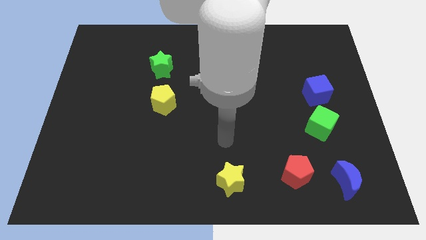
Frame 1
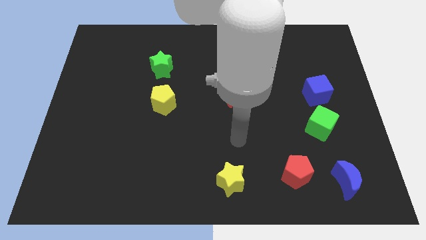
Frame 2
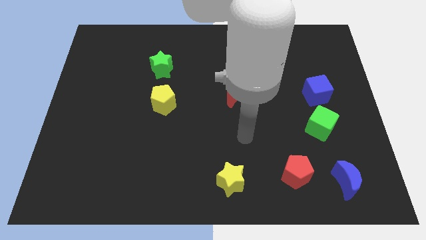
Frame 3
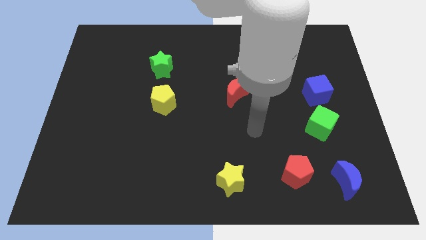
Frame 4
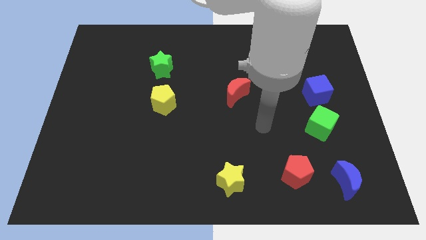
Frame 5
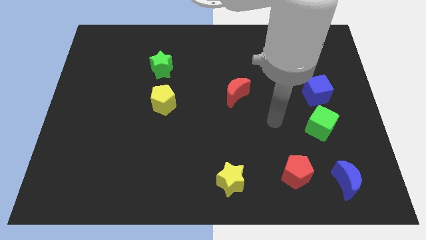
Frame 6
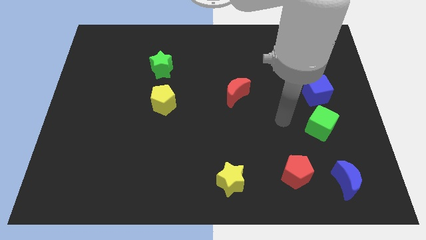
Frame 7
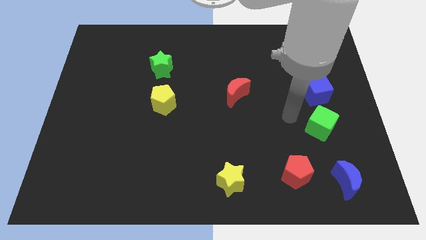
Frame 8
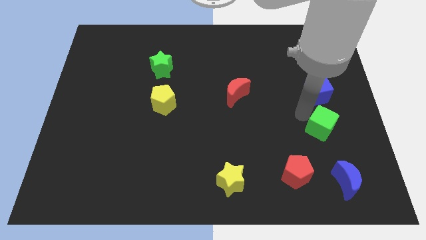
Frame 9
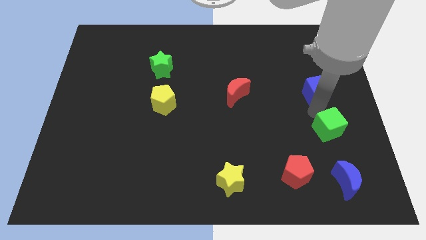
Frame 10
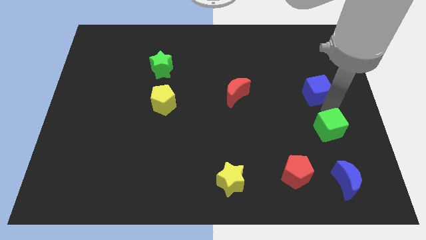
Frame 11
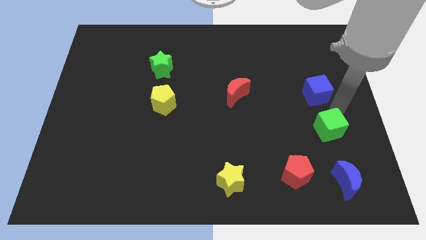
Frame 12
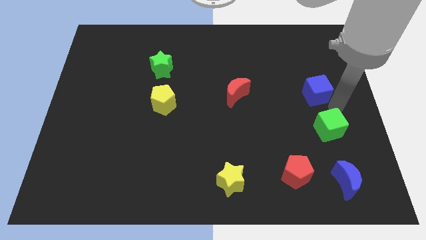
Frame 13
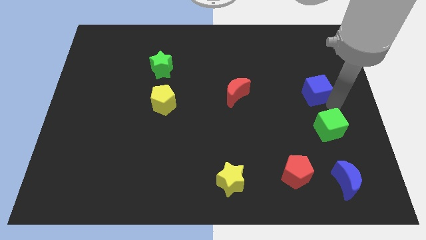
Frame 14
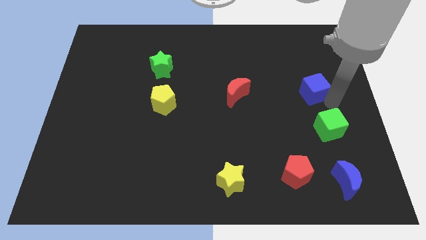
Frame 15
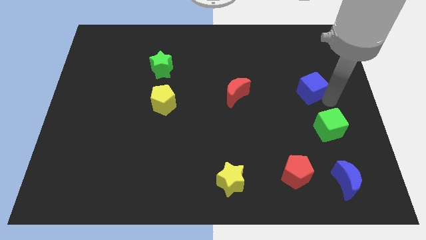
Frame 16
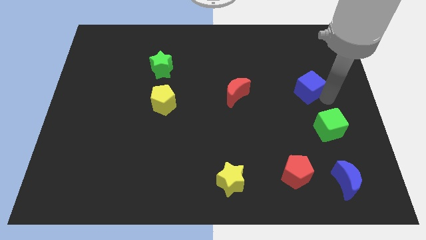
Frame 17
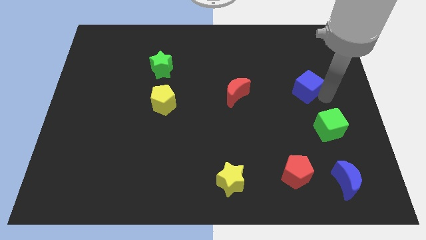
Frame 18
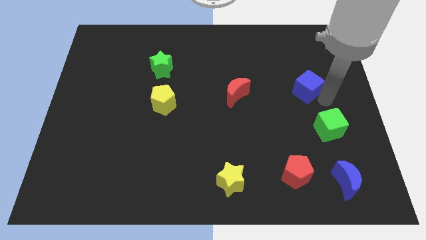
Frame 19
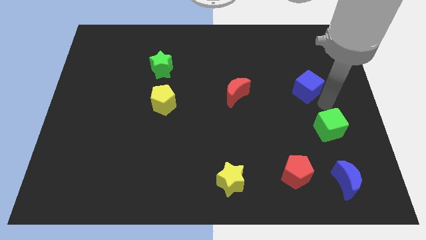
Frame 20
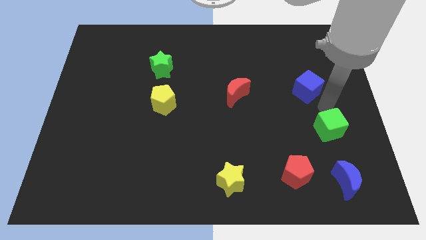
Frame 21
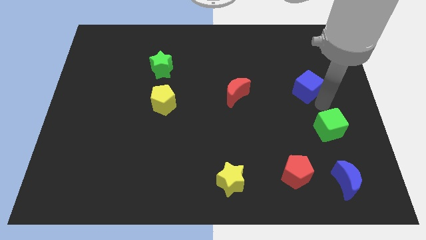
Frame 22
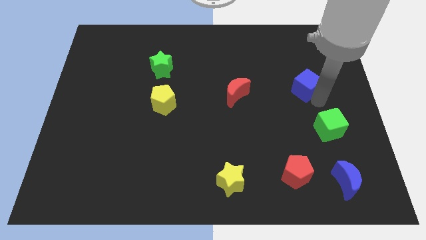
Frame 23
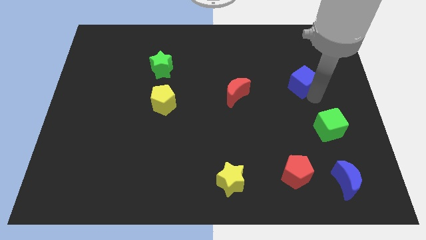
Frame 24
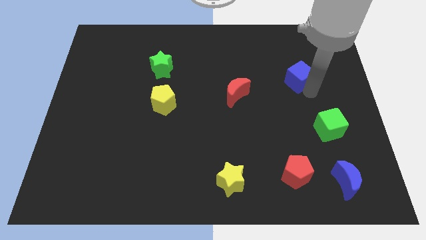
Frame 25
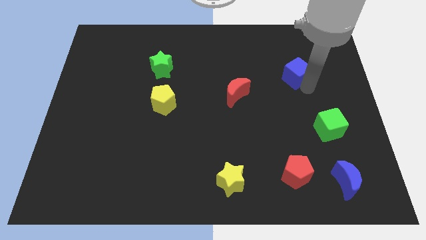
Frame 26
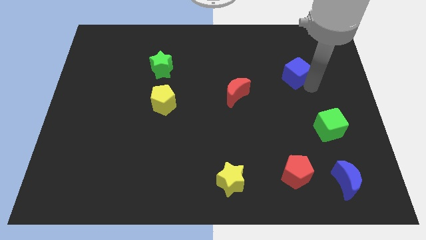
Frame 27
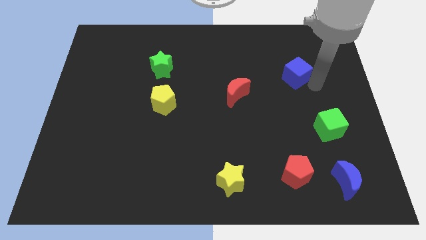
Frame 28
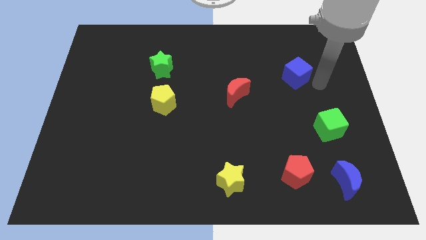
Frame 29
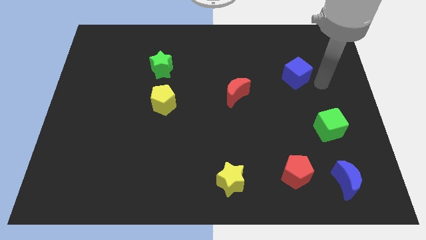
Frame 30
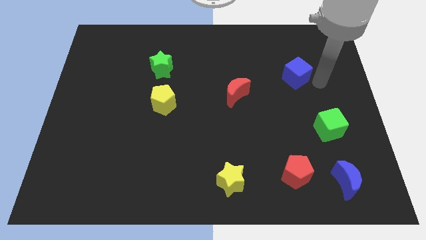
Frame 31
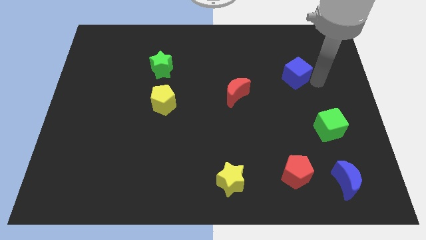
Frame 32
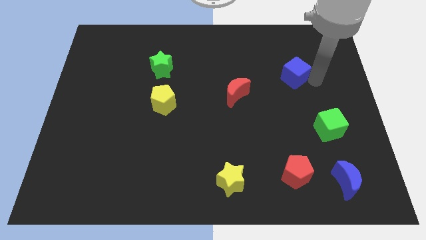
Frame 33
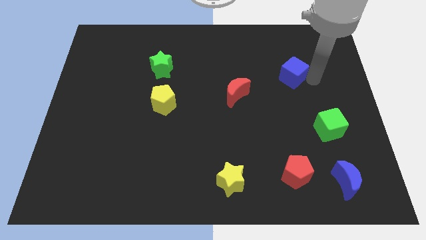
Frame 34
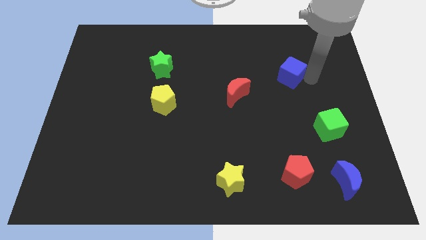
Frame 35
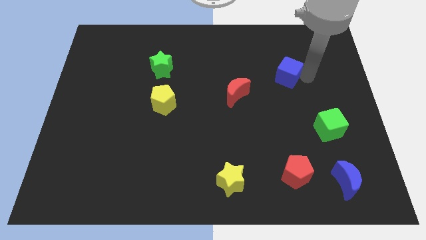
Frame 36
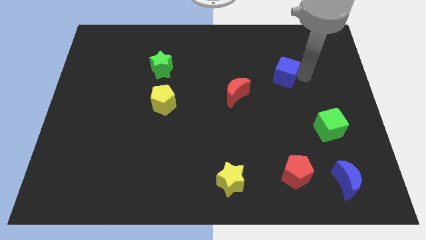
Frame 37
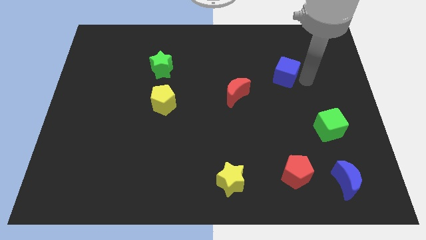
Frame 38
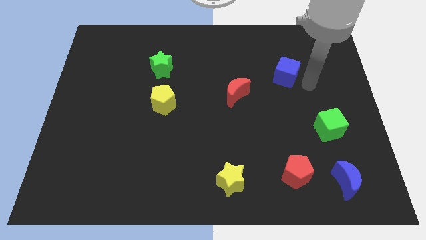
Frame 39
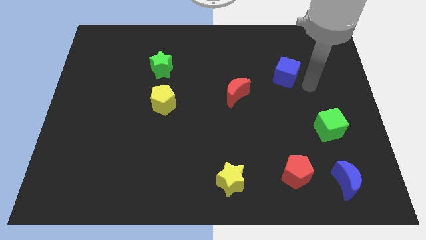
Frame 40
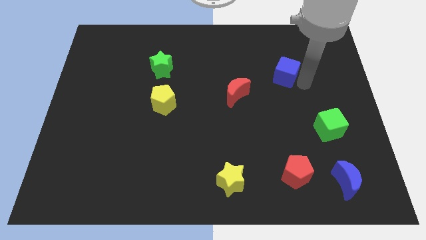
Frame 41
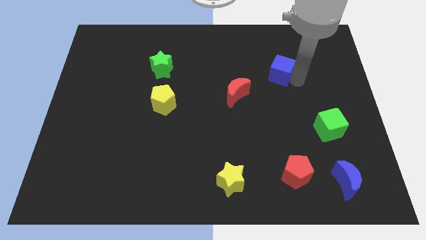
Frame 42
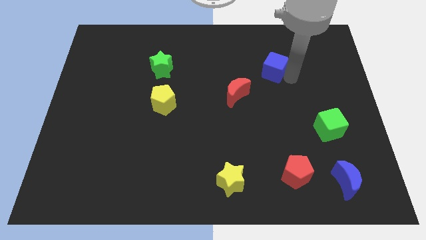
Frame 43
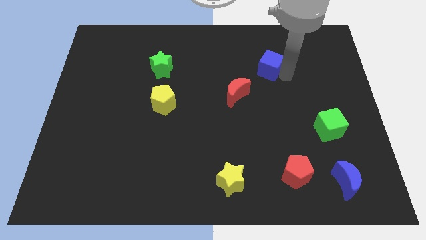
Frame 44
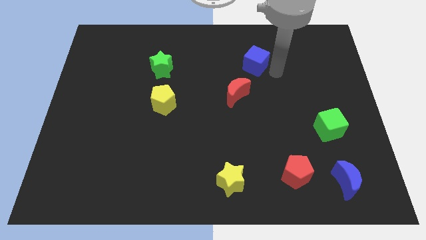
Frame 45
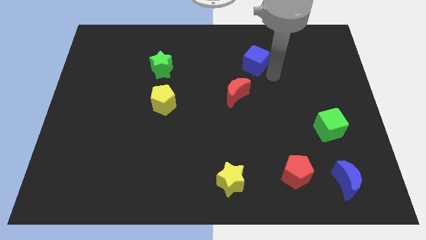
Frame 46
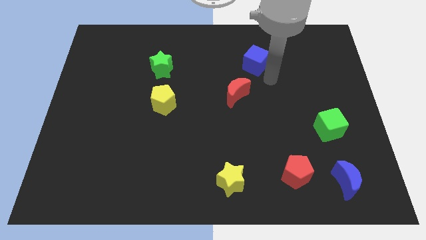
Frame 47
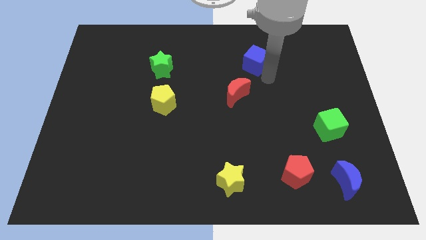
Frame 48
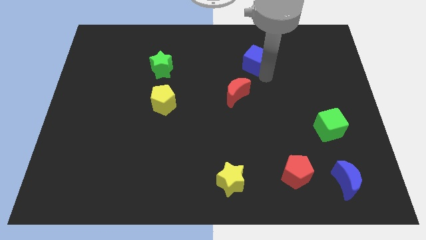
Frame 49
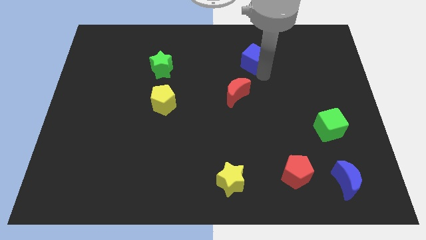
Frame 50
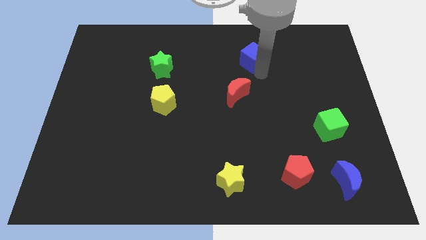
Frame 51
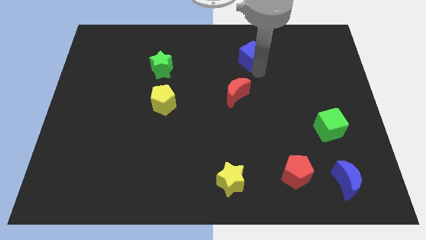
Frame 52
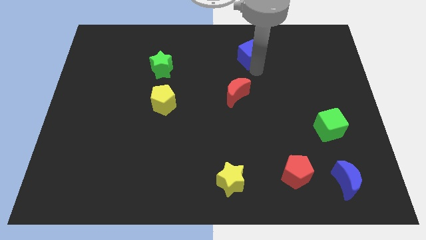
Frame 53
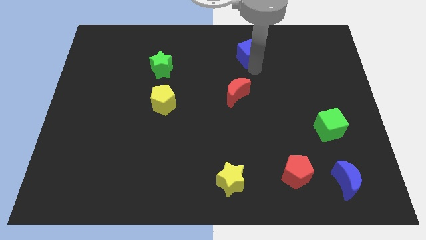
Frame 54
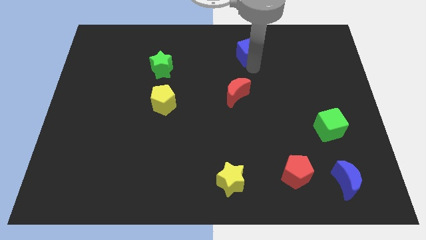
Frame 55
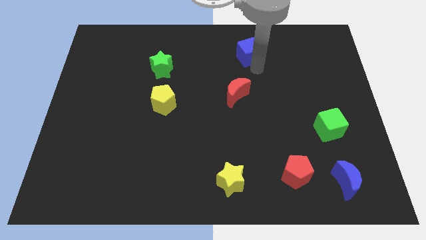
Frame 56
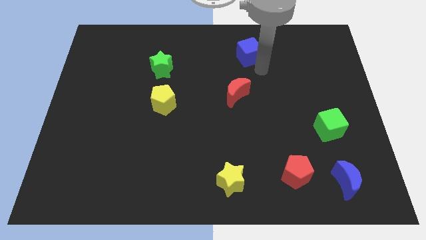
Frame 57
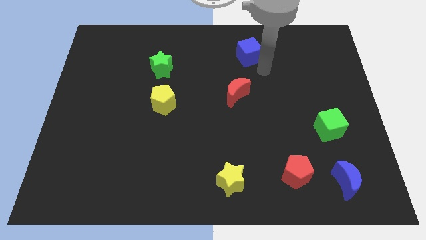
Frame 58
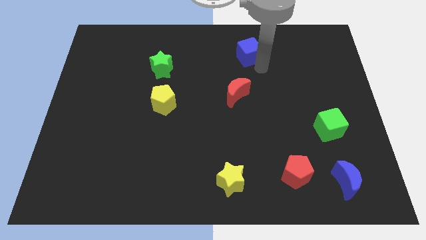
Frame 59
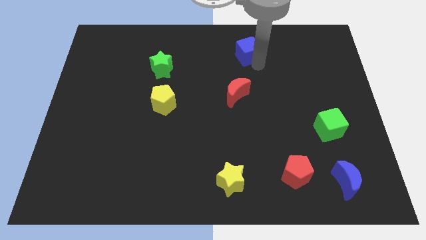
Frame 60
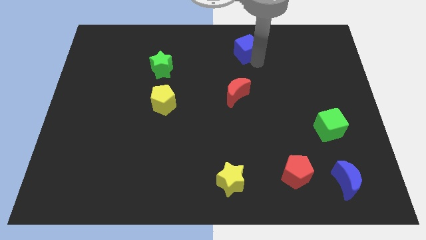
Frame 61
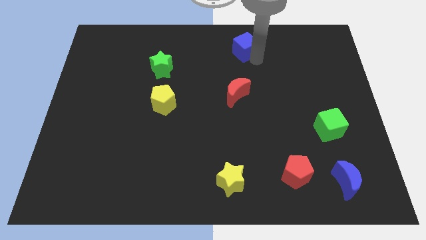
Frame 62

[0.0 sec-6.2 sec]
slide the blue cube to the towards your base
